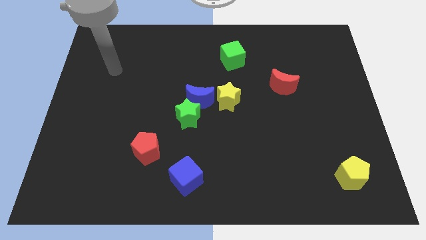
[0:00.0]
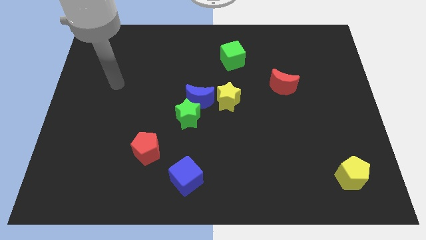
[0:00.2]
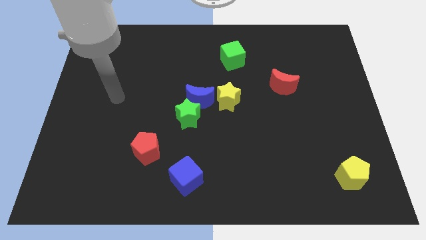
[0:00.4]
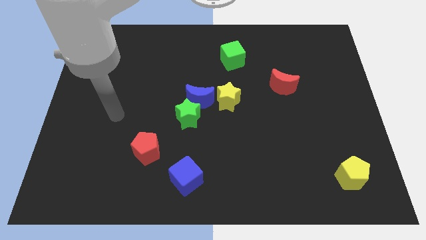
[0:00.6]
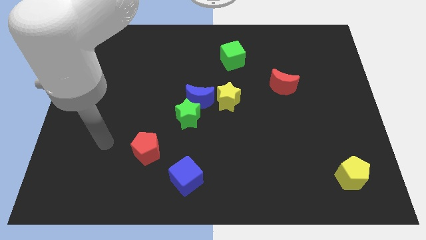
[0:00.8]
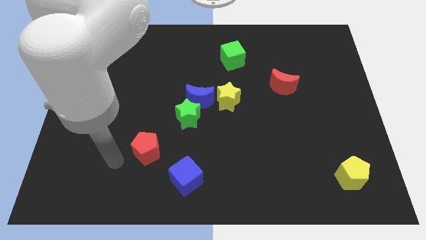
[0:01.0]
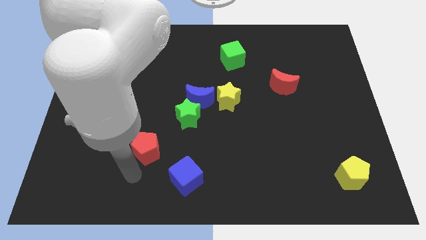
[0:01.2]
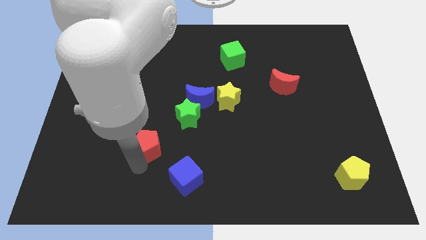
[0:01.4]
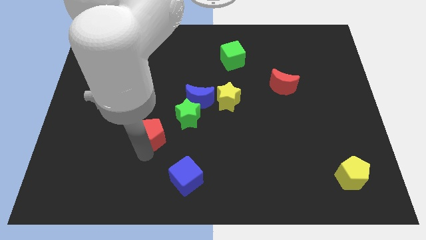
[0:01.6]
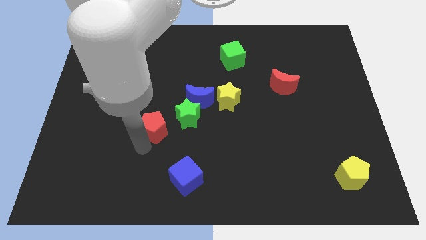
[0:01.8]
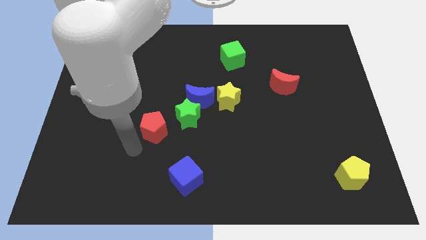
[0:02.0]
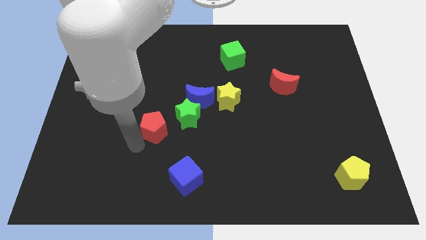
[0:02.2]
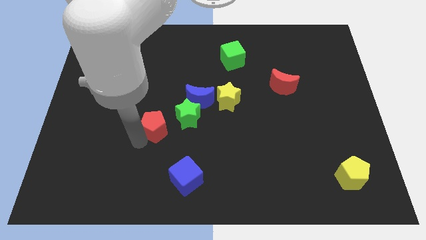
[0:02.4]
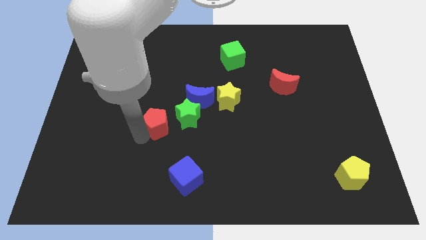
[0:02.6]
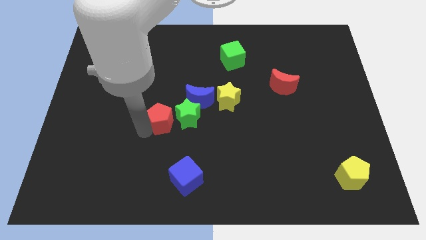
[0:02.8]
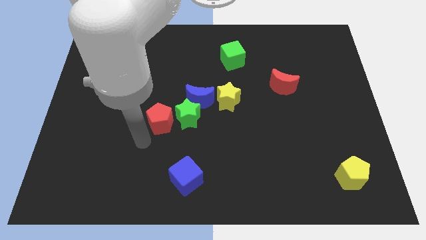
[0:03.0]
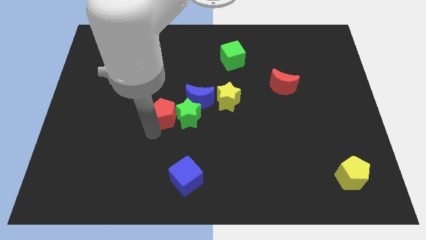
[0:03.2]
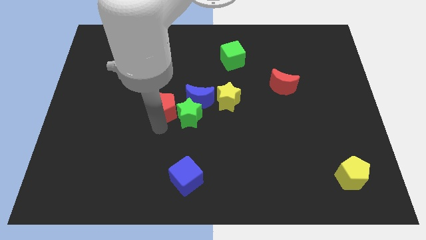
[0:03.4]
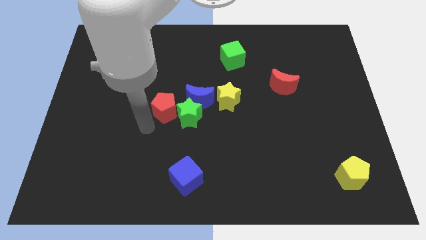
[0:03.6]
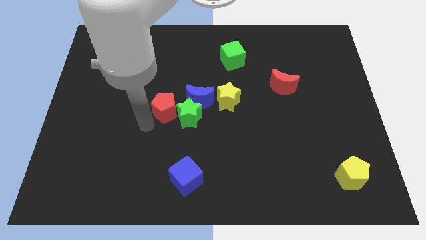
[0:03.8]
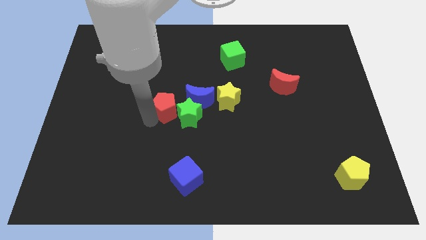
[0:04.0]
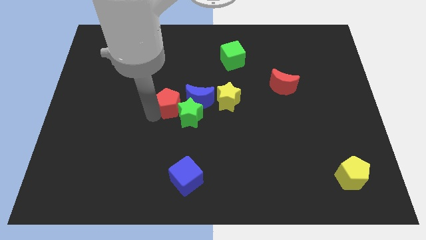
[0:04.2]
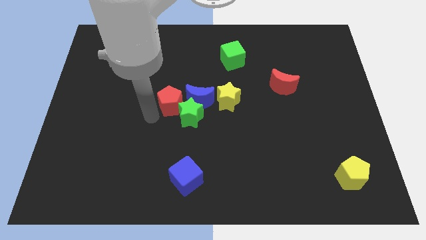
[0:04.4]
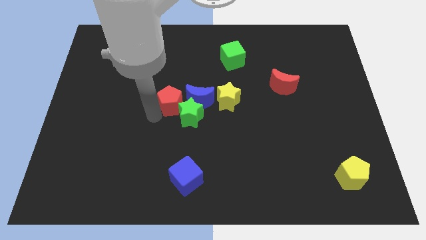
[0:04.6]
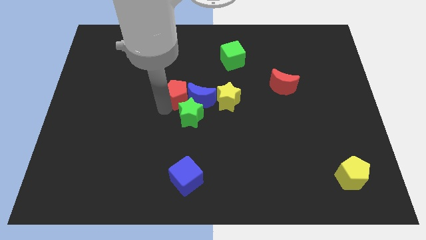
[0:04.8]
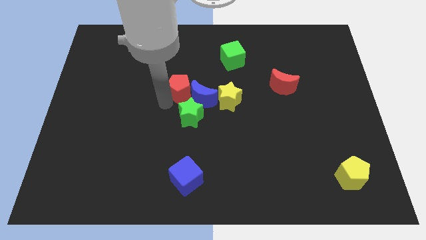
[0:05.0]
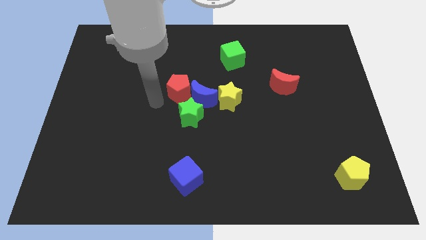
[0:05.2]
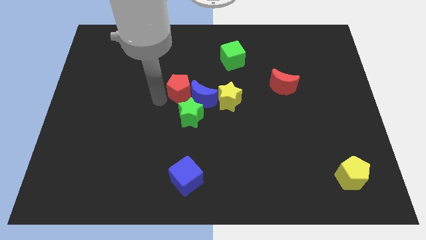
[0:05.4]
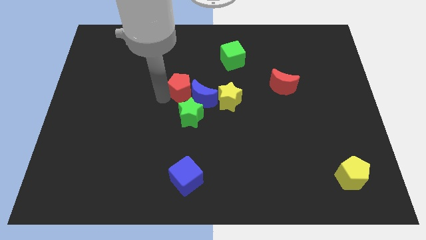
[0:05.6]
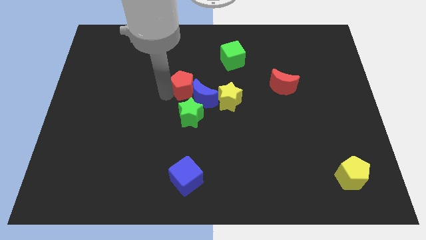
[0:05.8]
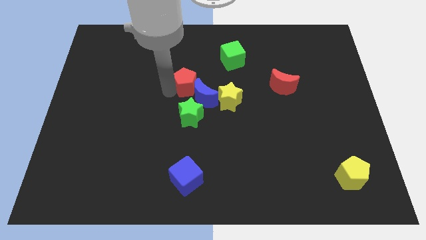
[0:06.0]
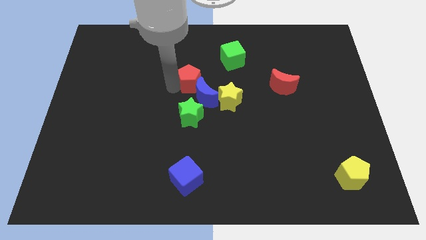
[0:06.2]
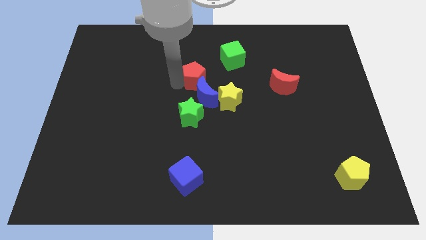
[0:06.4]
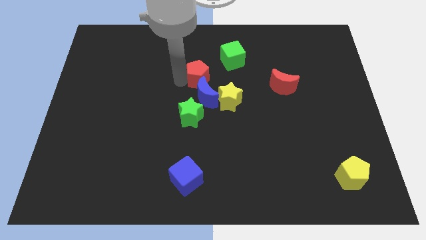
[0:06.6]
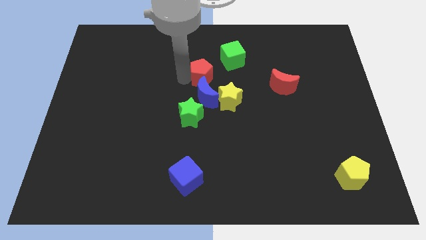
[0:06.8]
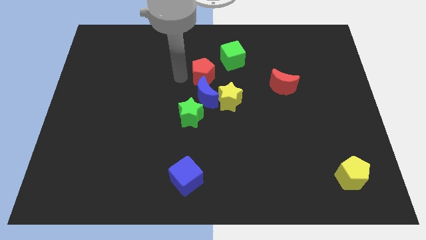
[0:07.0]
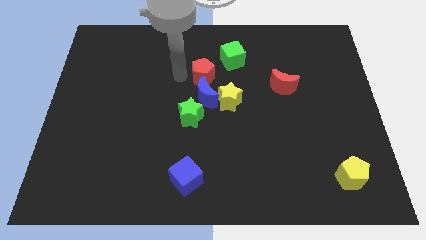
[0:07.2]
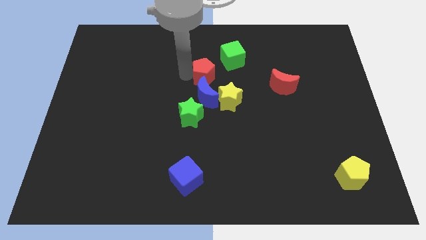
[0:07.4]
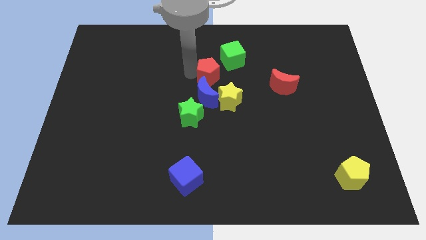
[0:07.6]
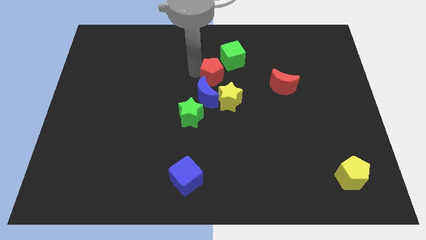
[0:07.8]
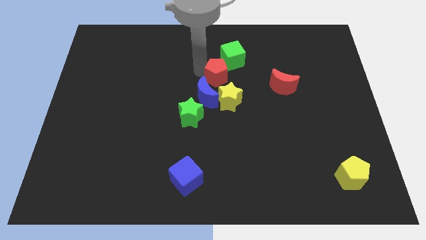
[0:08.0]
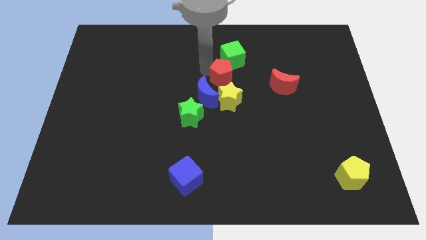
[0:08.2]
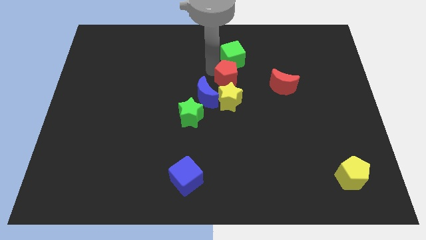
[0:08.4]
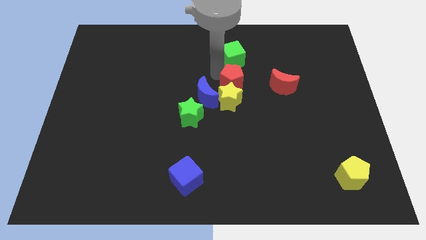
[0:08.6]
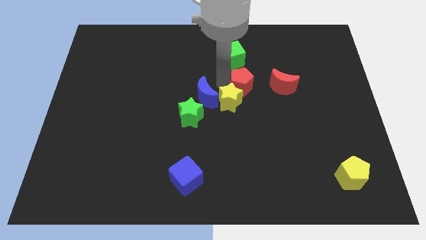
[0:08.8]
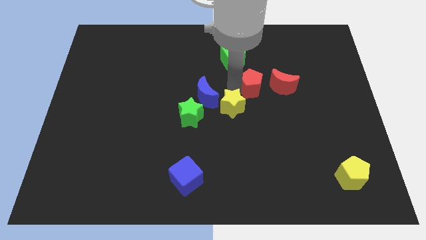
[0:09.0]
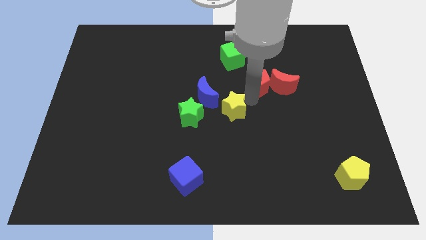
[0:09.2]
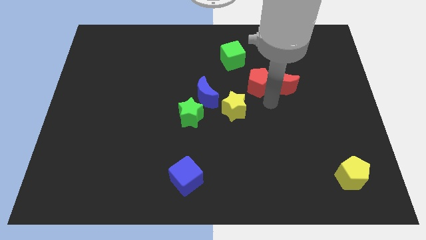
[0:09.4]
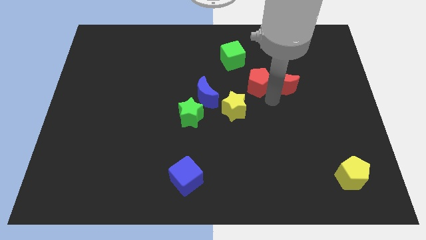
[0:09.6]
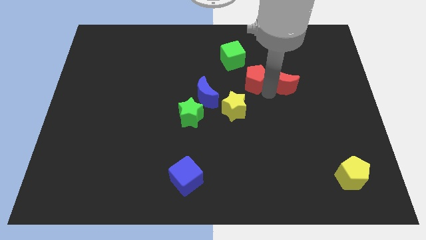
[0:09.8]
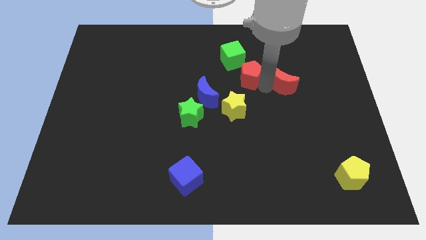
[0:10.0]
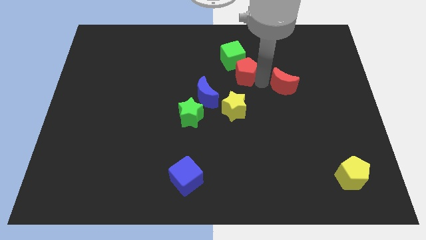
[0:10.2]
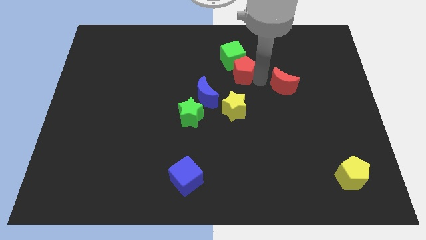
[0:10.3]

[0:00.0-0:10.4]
push the red pentagon next to the green cube

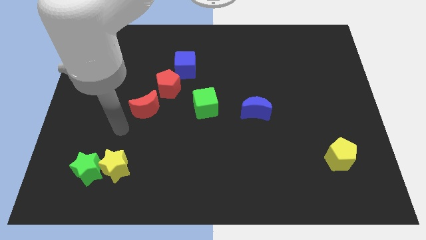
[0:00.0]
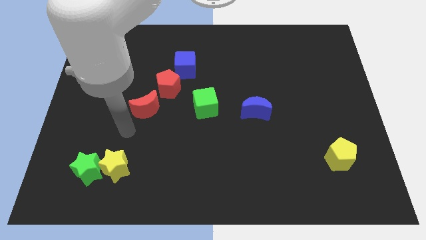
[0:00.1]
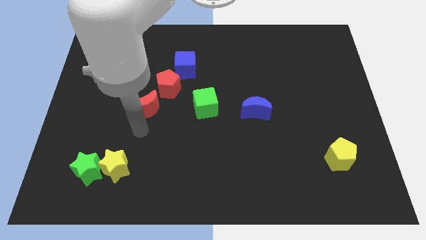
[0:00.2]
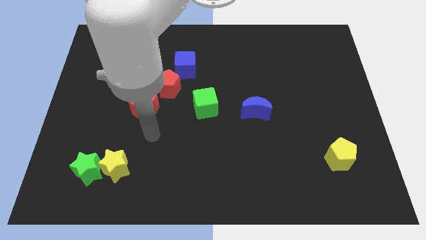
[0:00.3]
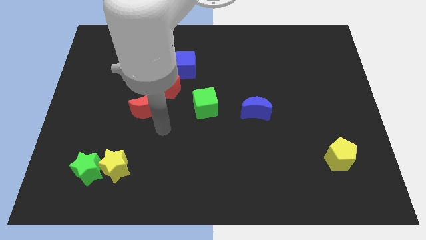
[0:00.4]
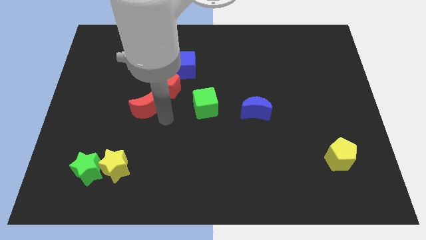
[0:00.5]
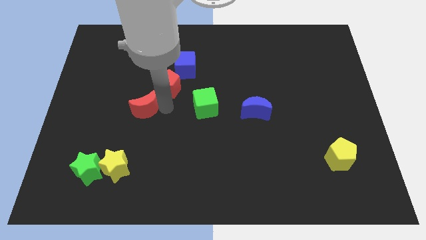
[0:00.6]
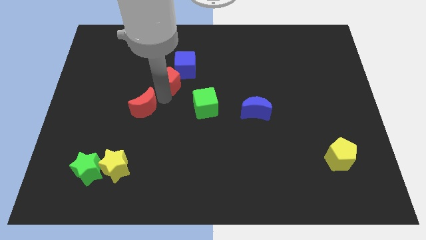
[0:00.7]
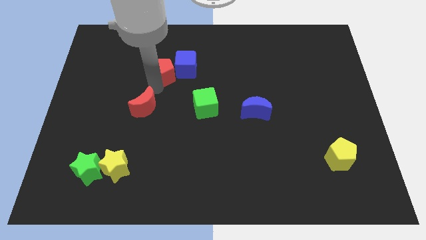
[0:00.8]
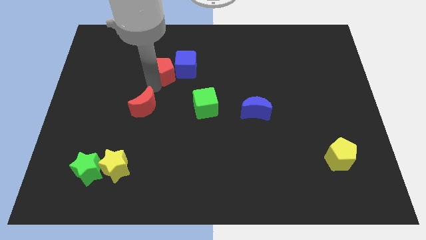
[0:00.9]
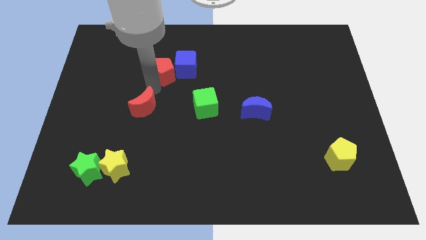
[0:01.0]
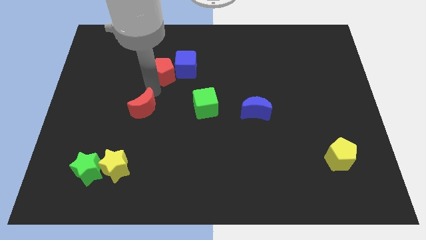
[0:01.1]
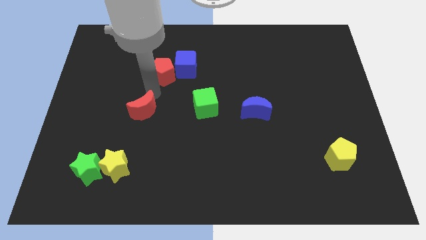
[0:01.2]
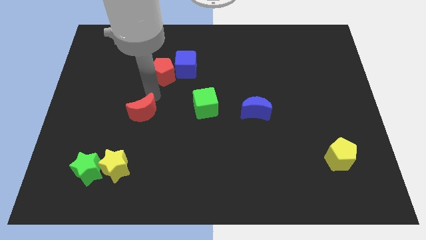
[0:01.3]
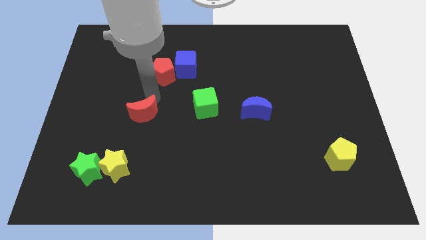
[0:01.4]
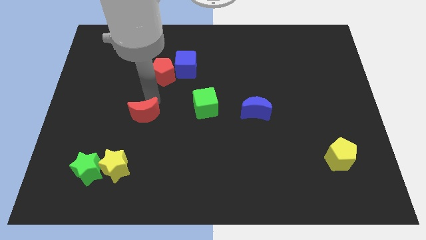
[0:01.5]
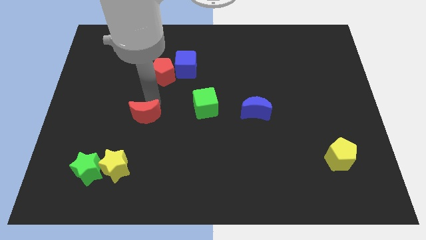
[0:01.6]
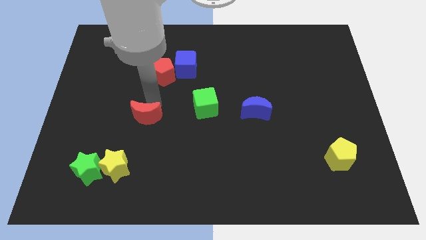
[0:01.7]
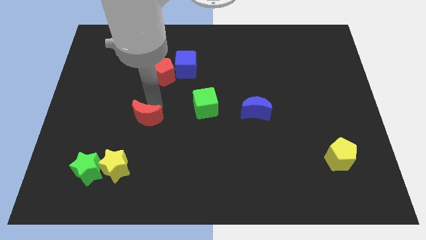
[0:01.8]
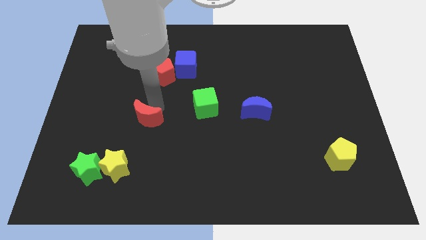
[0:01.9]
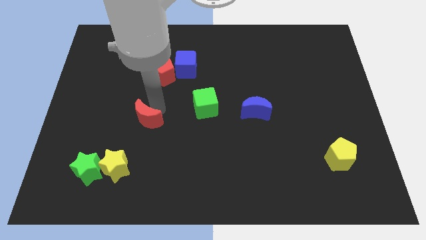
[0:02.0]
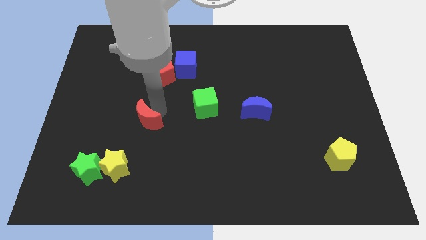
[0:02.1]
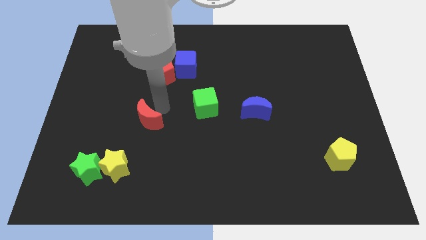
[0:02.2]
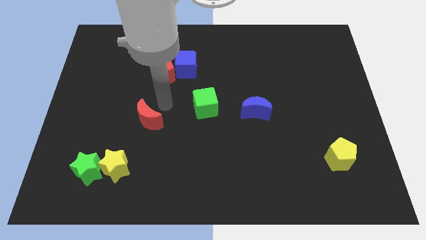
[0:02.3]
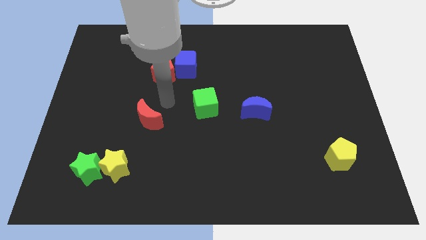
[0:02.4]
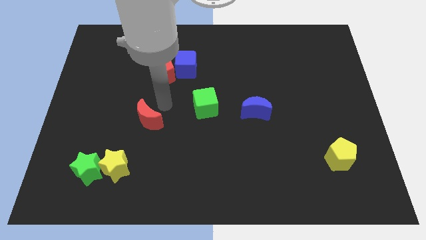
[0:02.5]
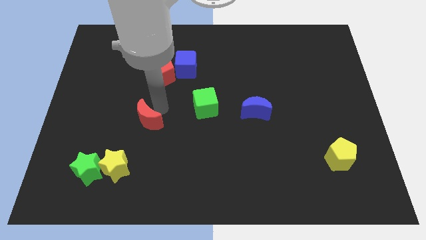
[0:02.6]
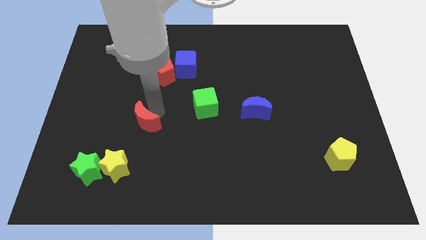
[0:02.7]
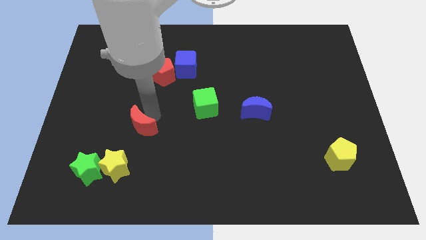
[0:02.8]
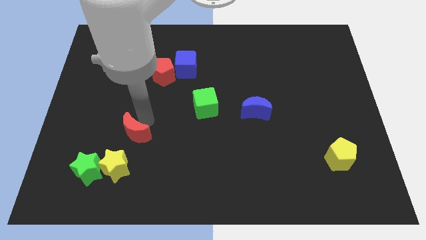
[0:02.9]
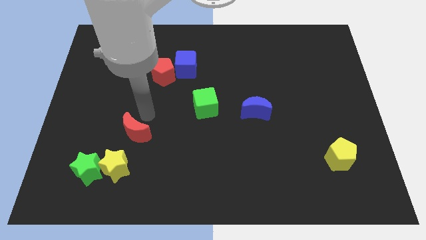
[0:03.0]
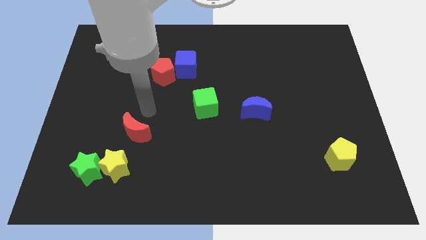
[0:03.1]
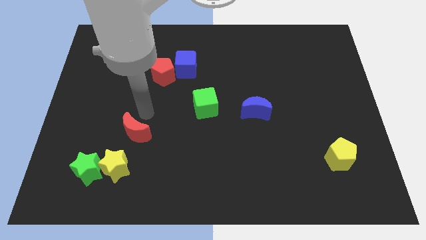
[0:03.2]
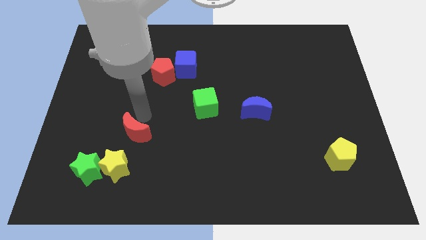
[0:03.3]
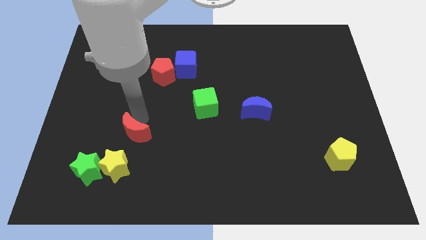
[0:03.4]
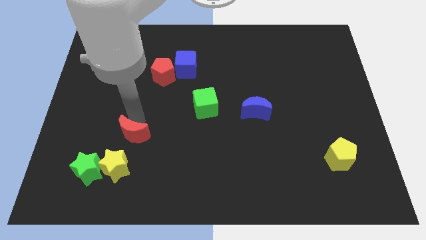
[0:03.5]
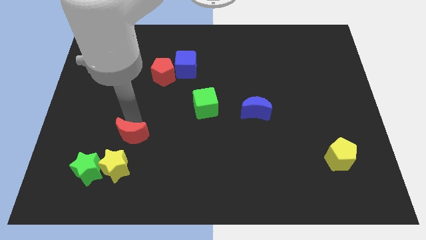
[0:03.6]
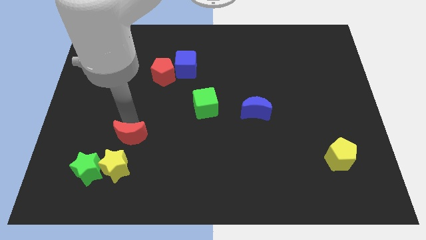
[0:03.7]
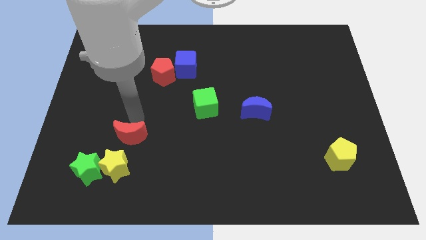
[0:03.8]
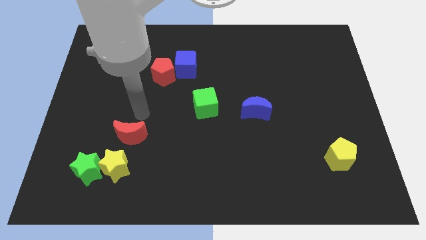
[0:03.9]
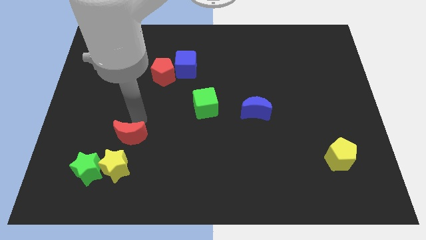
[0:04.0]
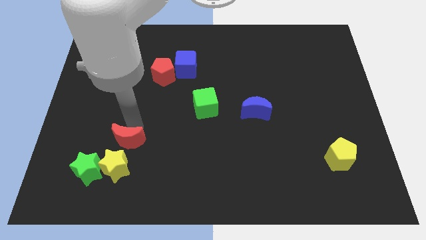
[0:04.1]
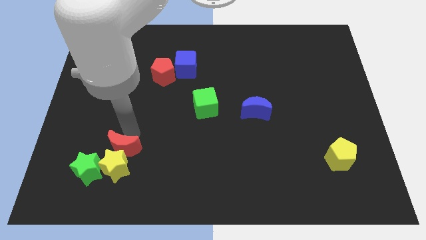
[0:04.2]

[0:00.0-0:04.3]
slide the red moon towards the yellow star
